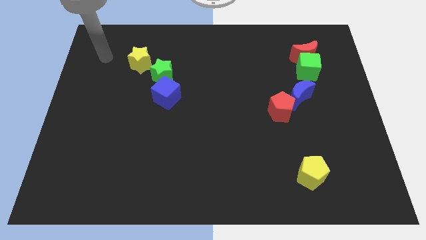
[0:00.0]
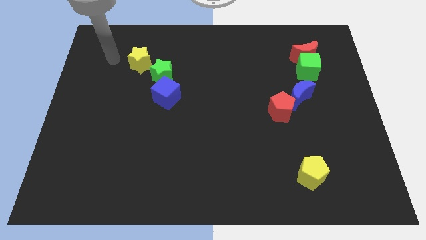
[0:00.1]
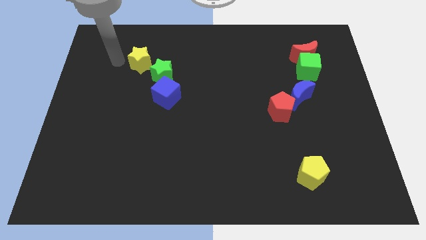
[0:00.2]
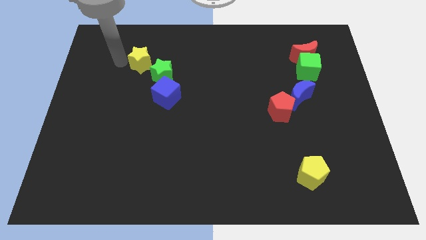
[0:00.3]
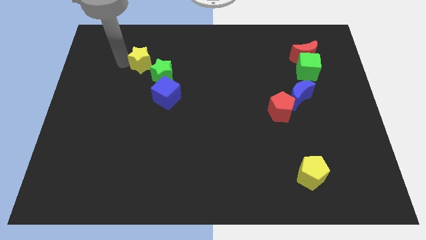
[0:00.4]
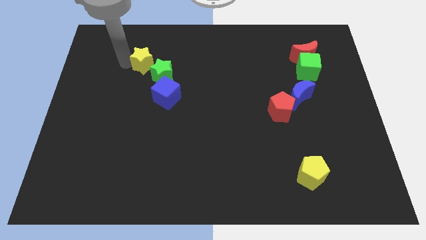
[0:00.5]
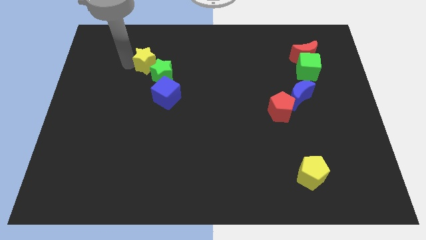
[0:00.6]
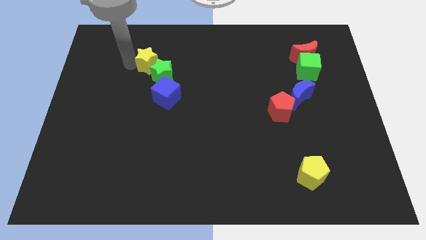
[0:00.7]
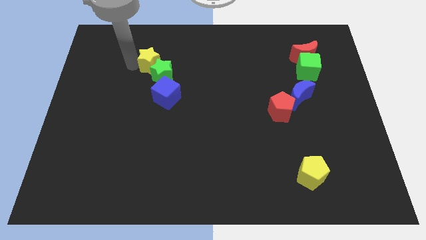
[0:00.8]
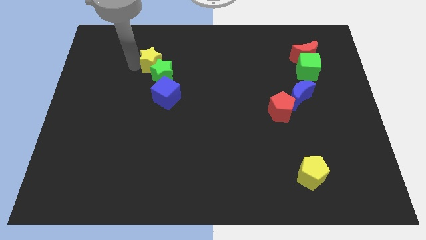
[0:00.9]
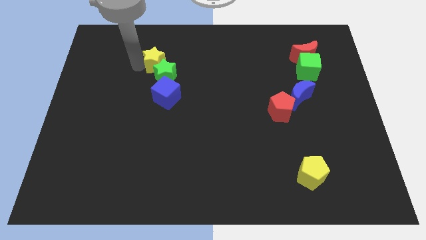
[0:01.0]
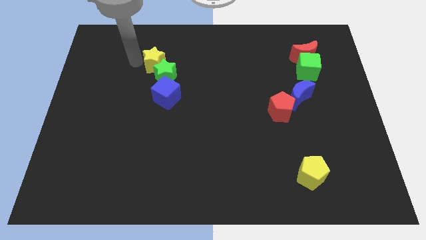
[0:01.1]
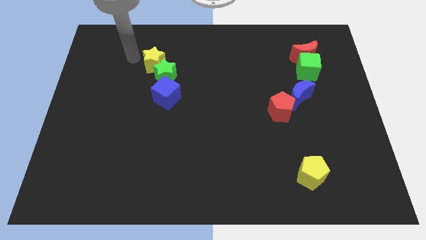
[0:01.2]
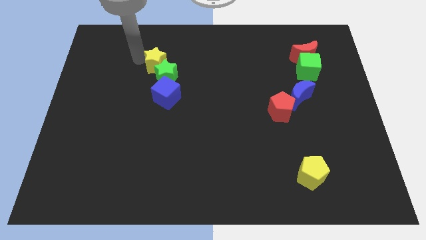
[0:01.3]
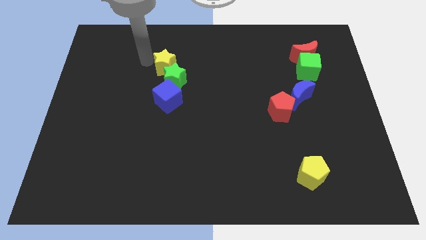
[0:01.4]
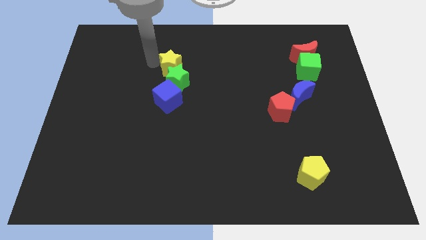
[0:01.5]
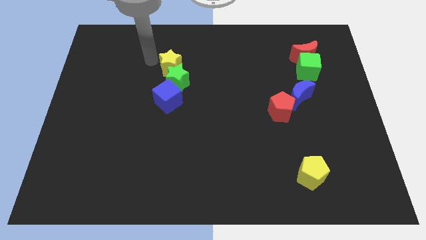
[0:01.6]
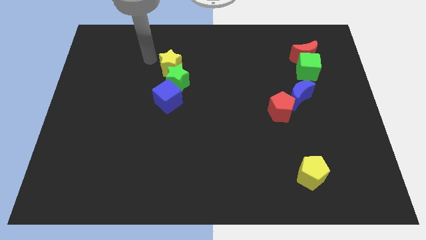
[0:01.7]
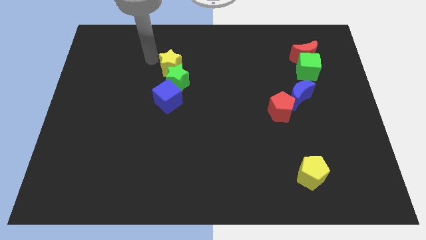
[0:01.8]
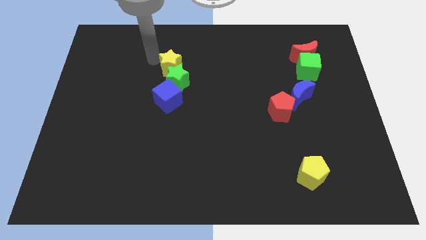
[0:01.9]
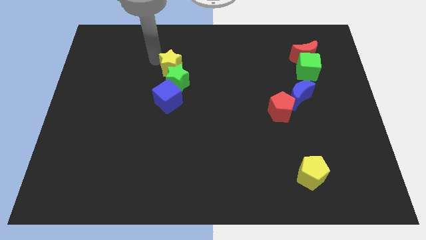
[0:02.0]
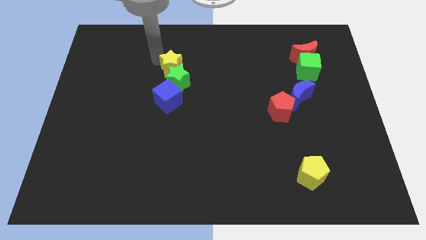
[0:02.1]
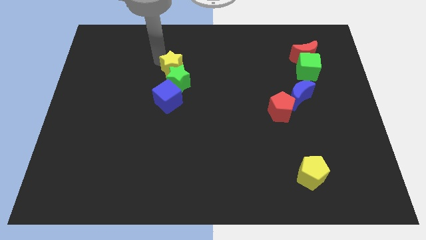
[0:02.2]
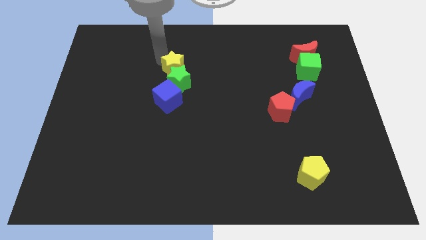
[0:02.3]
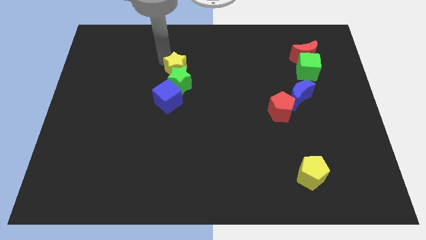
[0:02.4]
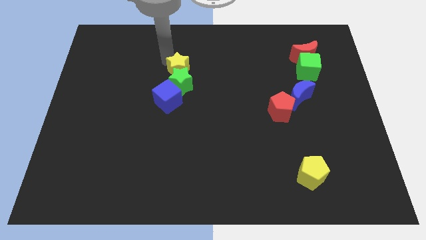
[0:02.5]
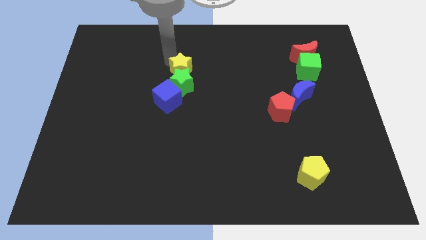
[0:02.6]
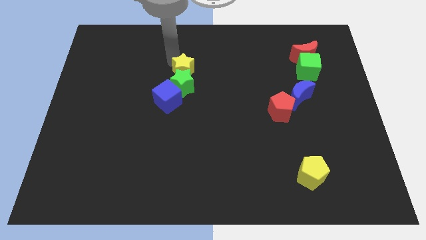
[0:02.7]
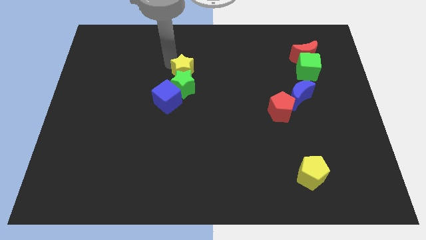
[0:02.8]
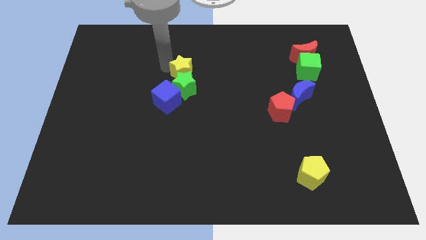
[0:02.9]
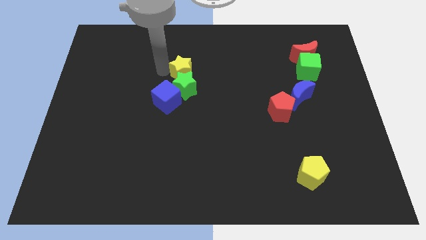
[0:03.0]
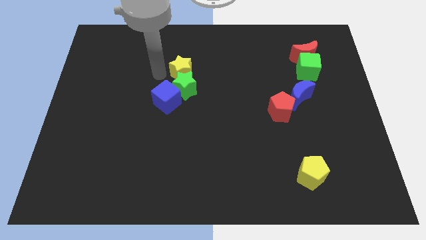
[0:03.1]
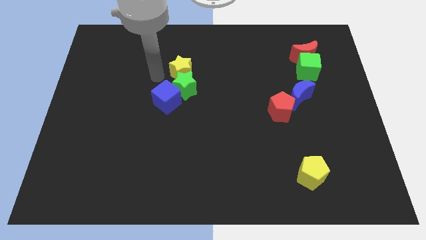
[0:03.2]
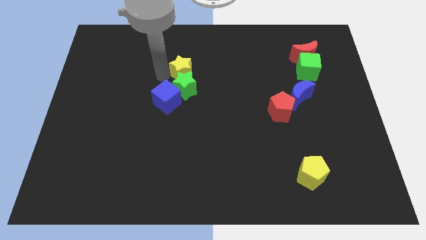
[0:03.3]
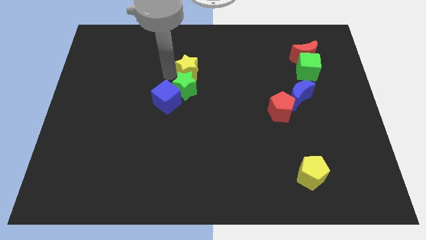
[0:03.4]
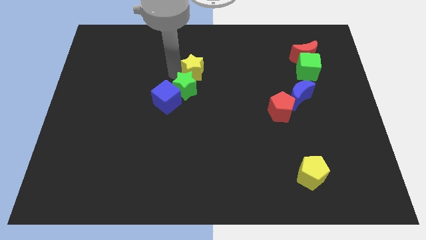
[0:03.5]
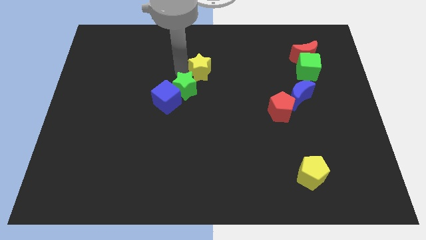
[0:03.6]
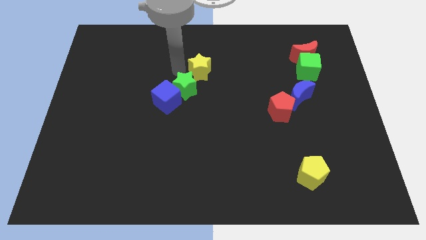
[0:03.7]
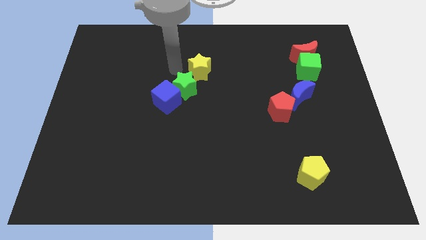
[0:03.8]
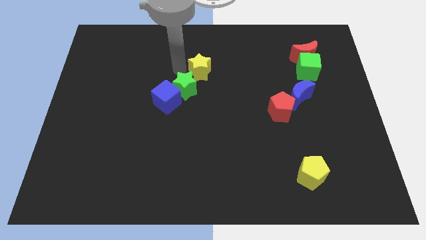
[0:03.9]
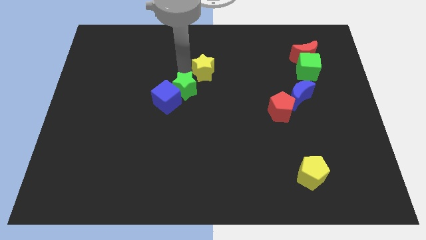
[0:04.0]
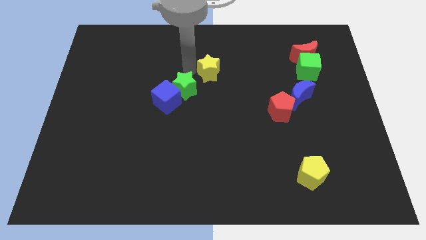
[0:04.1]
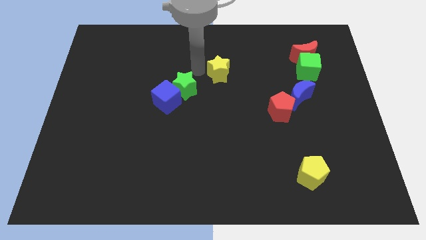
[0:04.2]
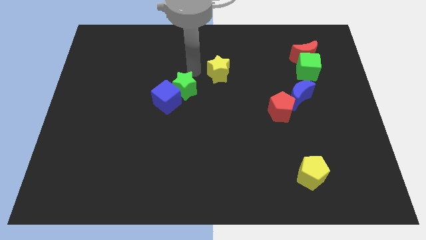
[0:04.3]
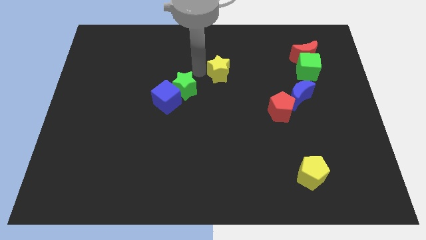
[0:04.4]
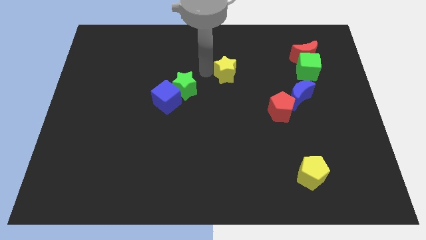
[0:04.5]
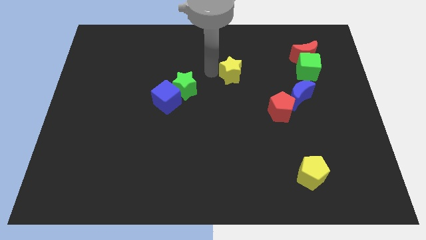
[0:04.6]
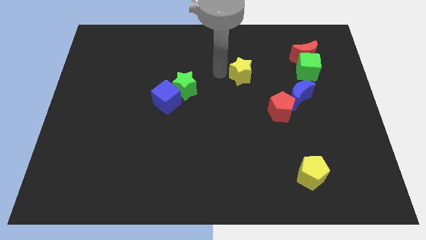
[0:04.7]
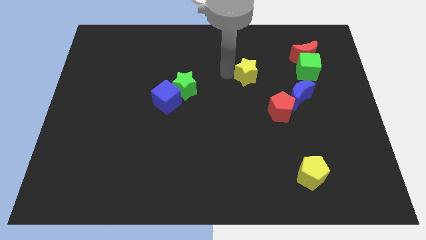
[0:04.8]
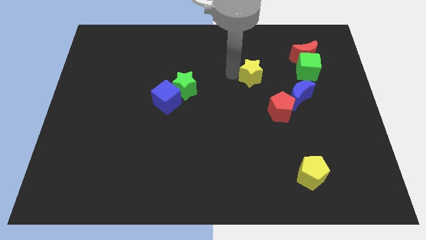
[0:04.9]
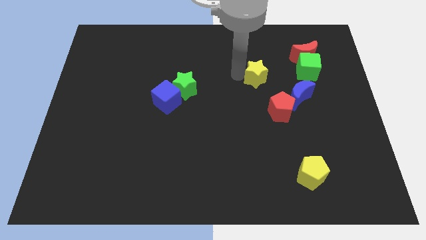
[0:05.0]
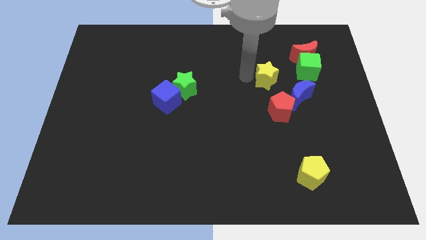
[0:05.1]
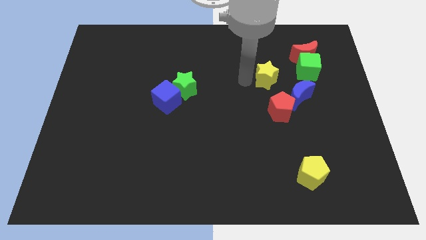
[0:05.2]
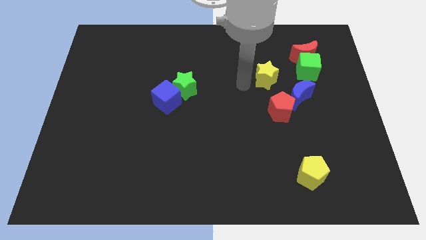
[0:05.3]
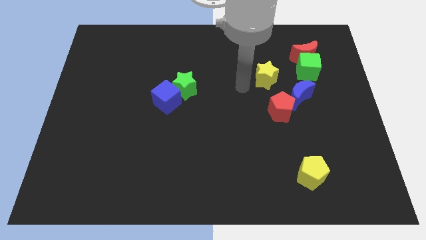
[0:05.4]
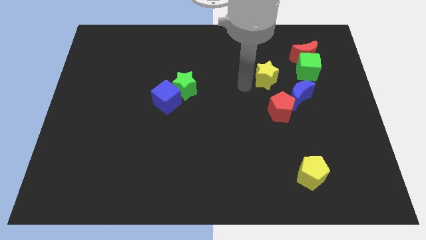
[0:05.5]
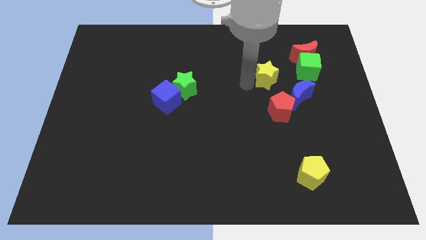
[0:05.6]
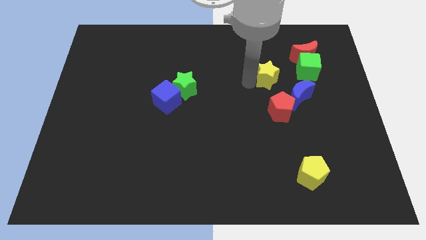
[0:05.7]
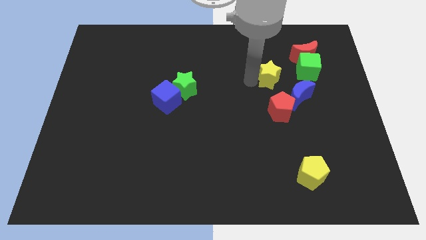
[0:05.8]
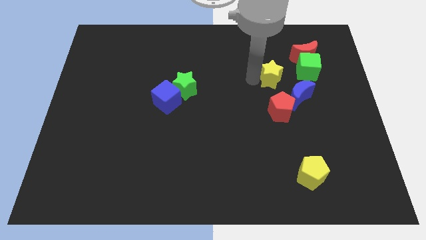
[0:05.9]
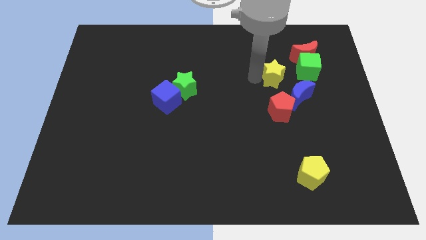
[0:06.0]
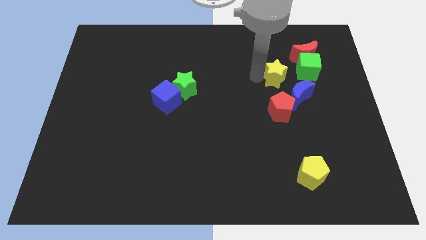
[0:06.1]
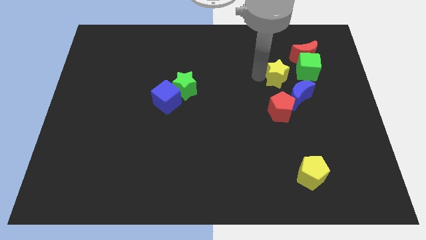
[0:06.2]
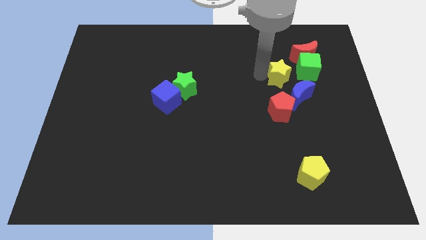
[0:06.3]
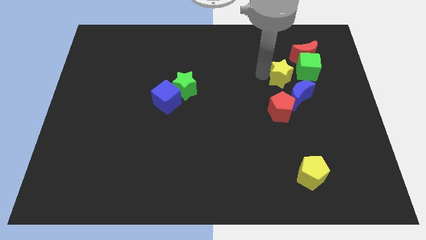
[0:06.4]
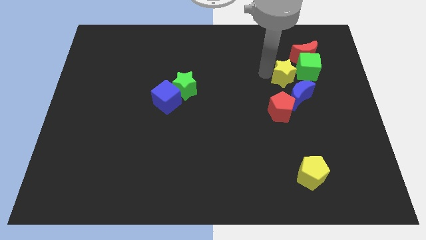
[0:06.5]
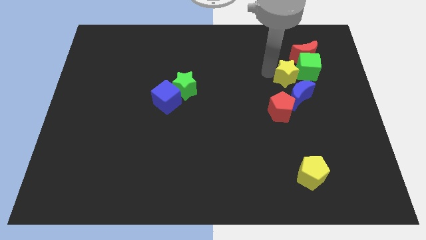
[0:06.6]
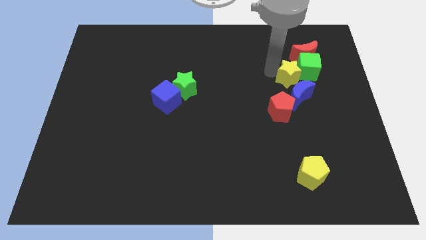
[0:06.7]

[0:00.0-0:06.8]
move the yellow star next to the green cube
